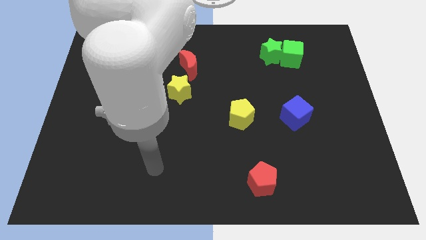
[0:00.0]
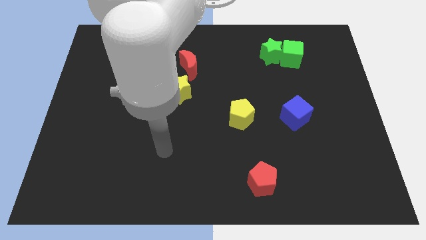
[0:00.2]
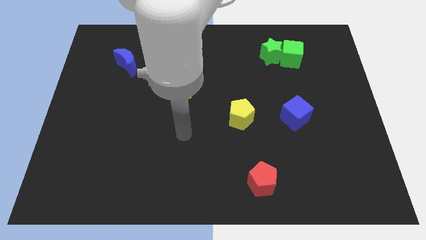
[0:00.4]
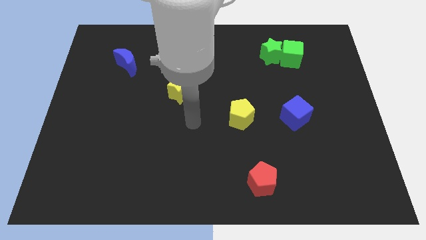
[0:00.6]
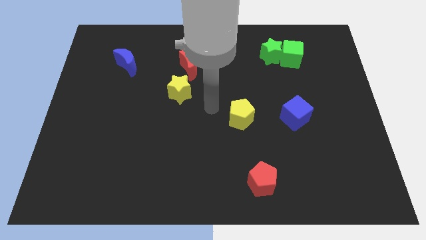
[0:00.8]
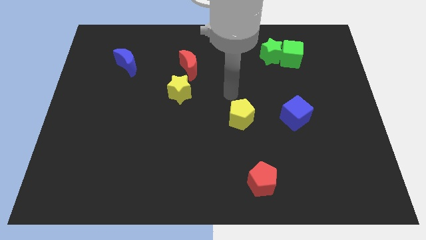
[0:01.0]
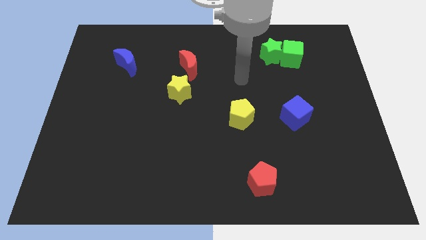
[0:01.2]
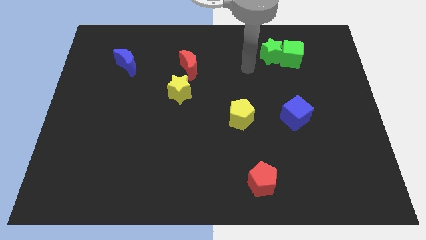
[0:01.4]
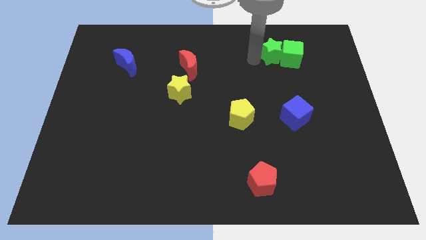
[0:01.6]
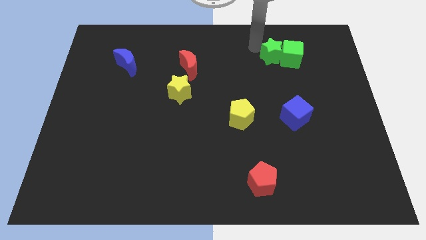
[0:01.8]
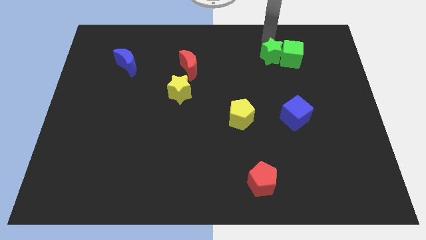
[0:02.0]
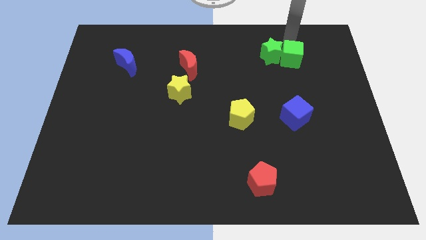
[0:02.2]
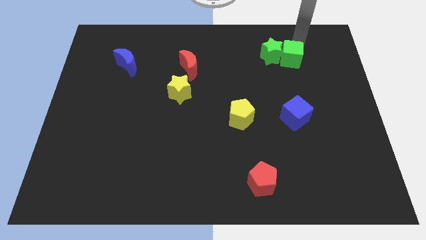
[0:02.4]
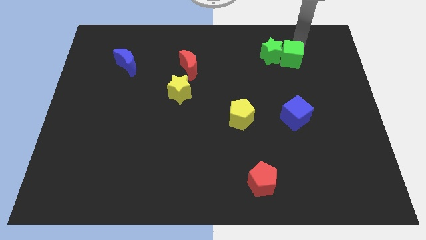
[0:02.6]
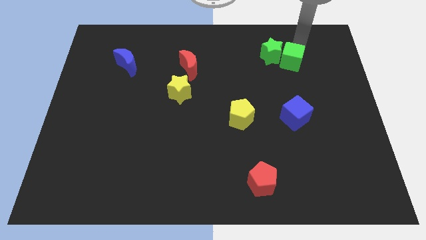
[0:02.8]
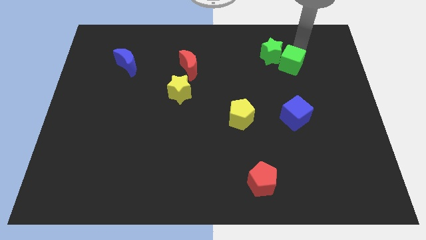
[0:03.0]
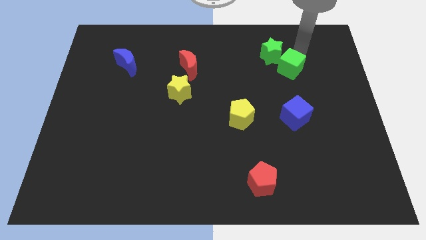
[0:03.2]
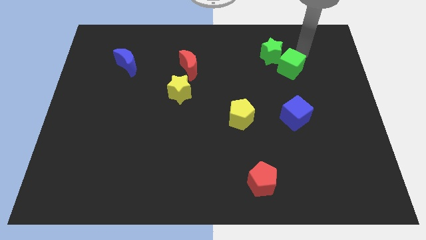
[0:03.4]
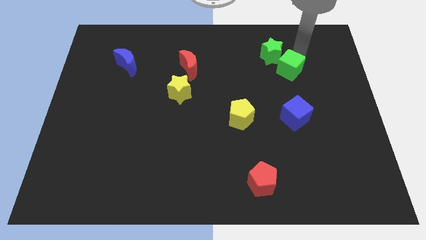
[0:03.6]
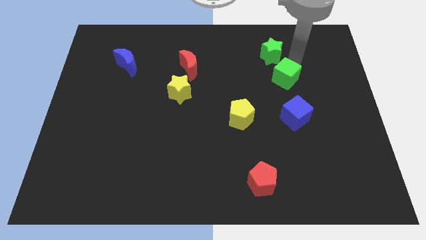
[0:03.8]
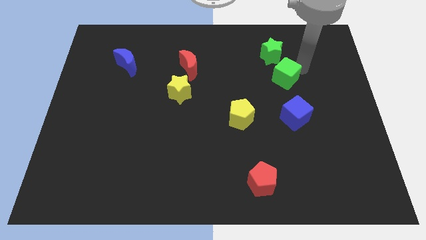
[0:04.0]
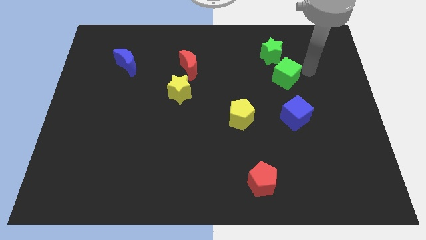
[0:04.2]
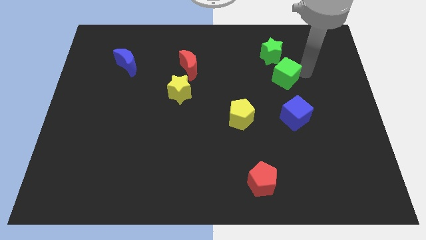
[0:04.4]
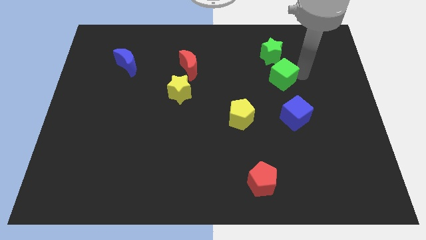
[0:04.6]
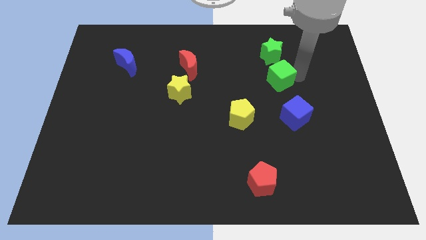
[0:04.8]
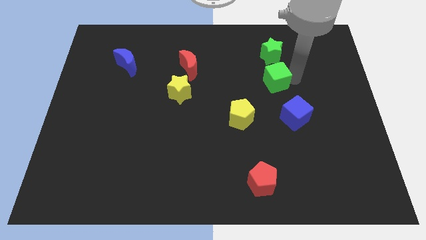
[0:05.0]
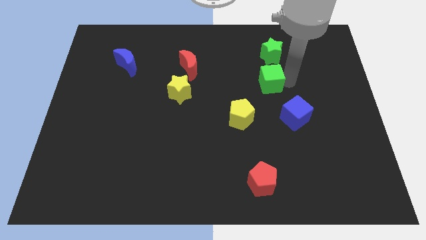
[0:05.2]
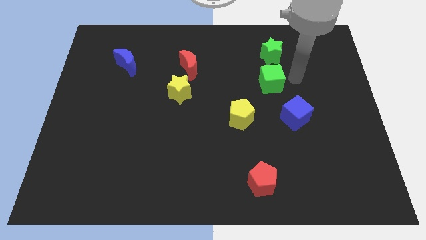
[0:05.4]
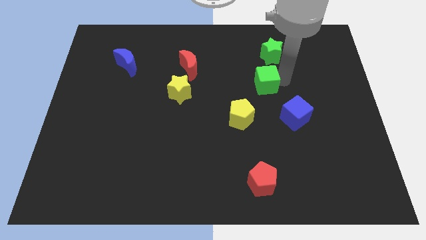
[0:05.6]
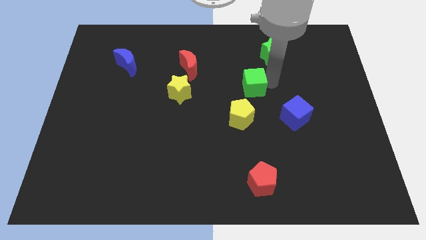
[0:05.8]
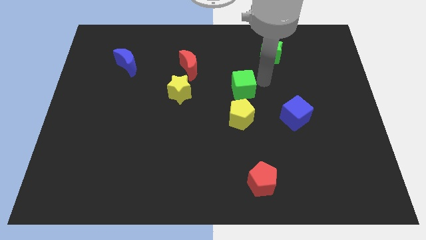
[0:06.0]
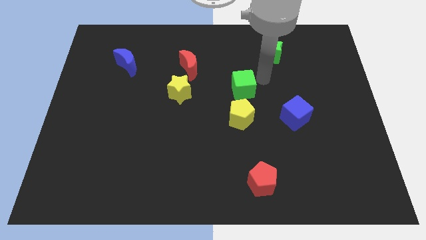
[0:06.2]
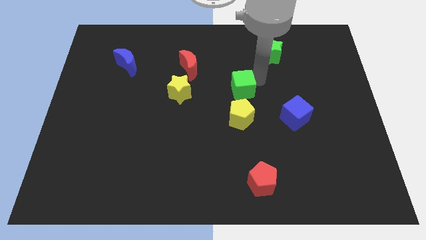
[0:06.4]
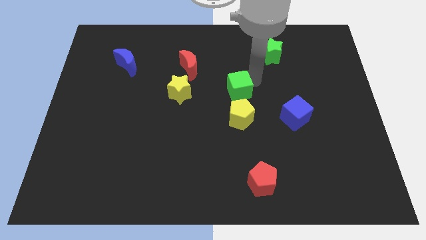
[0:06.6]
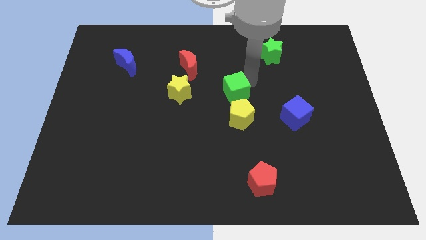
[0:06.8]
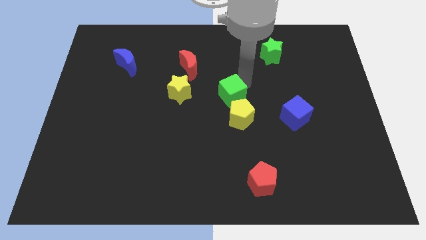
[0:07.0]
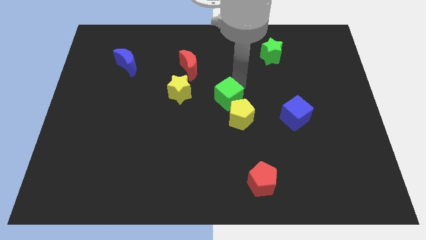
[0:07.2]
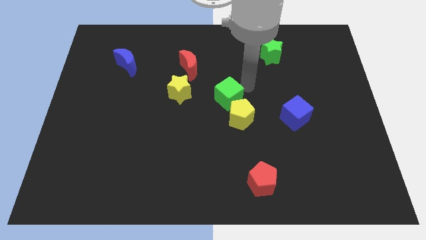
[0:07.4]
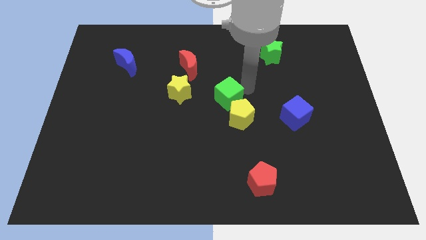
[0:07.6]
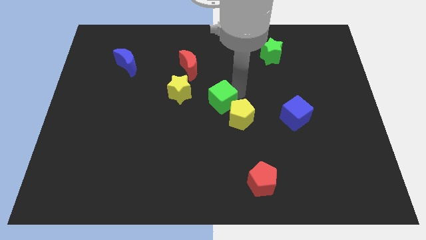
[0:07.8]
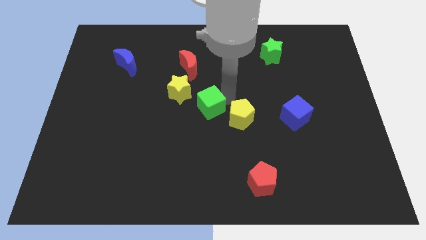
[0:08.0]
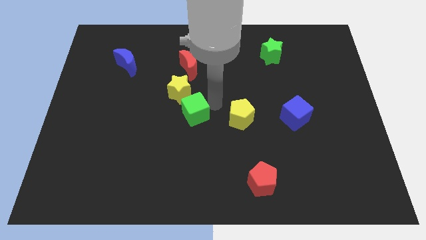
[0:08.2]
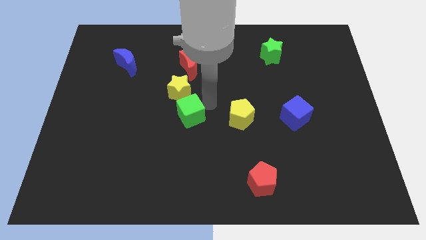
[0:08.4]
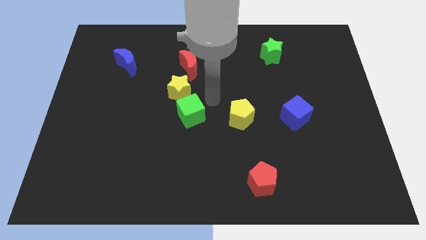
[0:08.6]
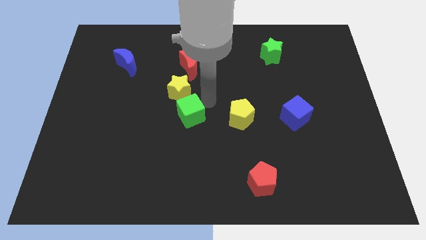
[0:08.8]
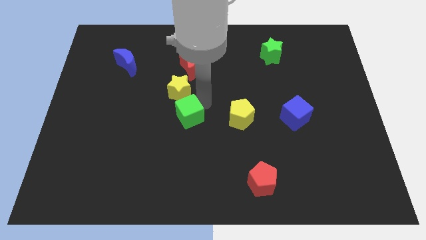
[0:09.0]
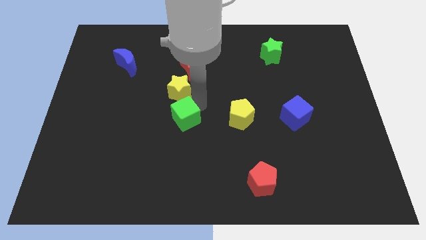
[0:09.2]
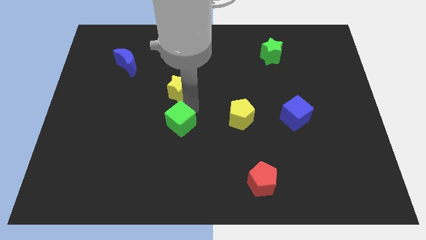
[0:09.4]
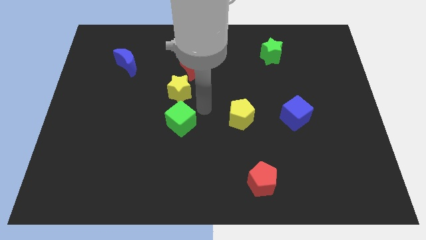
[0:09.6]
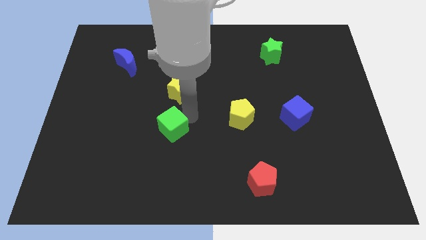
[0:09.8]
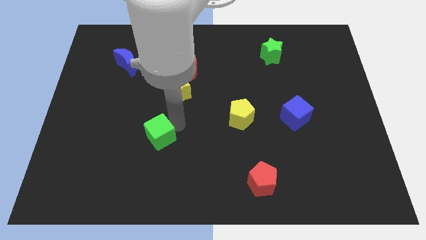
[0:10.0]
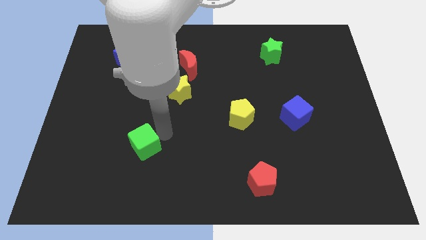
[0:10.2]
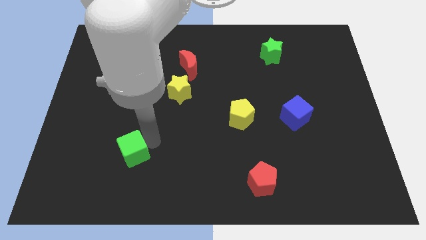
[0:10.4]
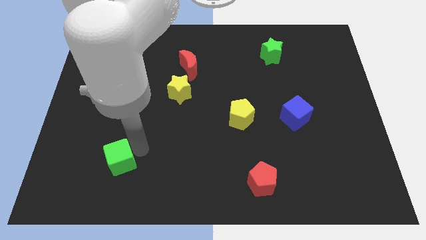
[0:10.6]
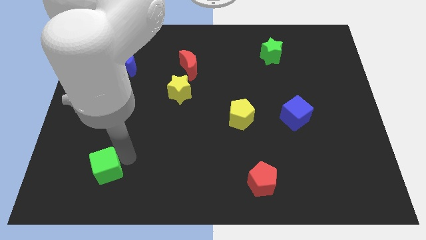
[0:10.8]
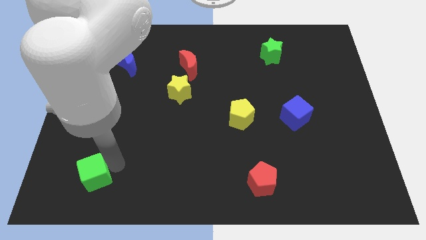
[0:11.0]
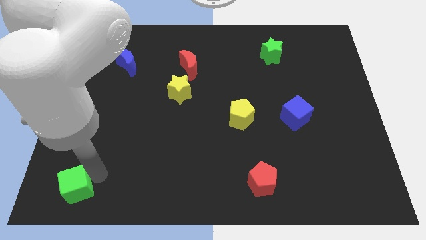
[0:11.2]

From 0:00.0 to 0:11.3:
put the green cube to the bottom left

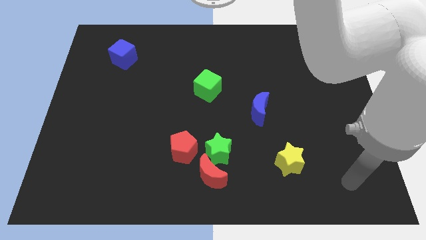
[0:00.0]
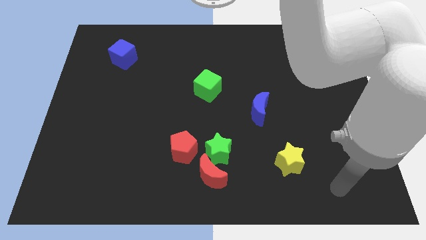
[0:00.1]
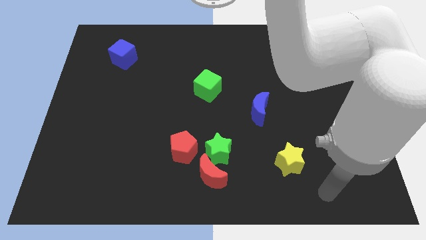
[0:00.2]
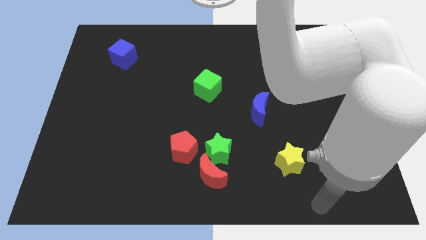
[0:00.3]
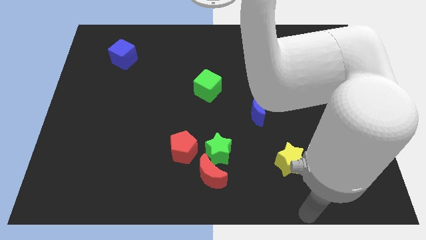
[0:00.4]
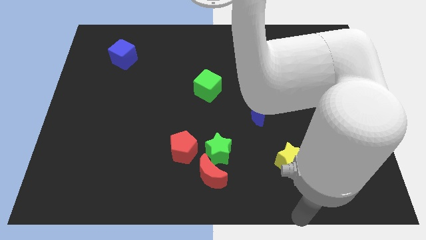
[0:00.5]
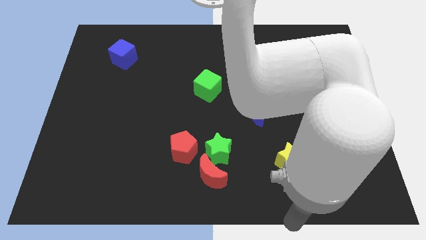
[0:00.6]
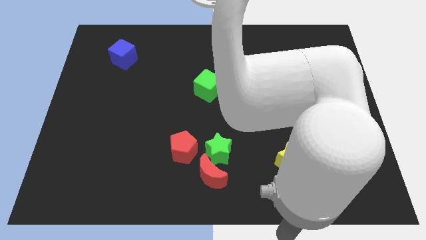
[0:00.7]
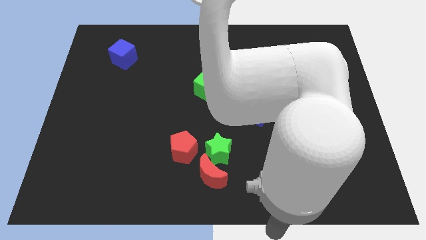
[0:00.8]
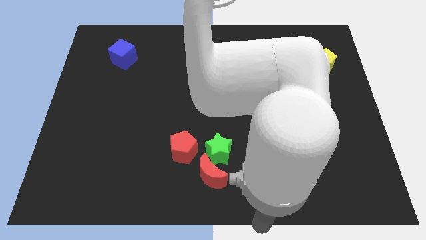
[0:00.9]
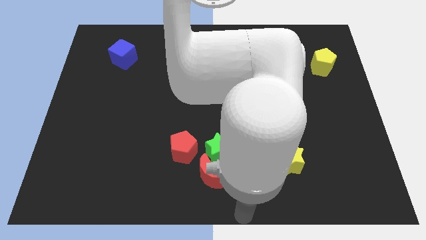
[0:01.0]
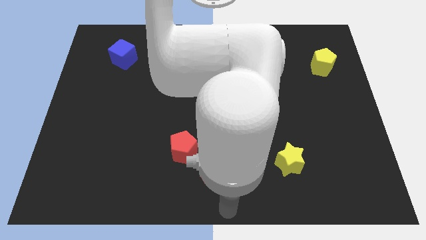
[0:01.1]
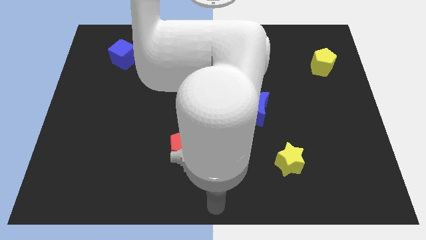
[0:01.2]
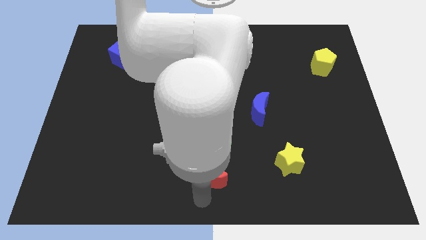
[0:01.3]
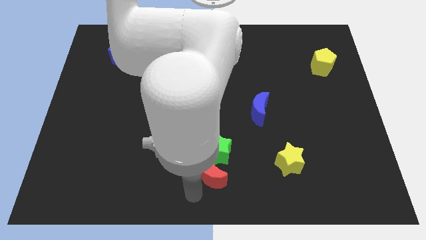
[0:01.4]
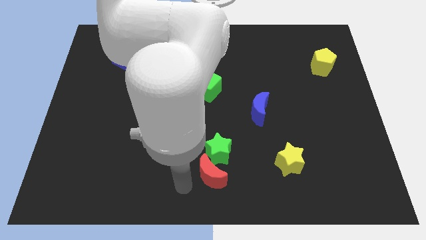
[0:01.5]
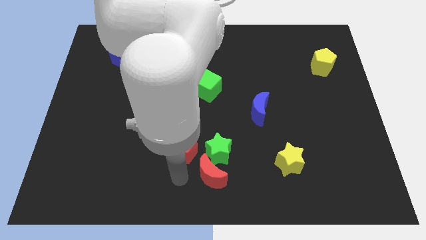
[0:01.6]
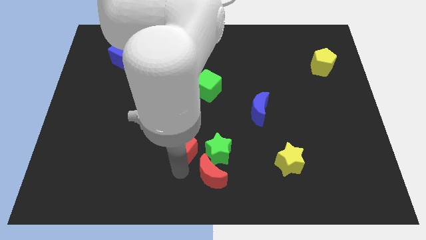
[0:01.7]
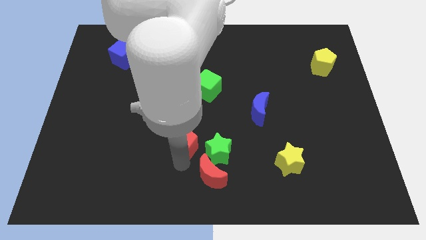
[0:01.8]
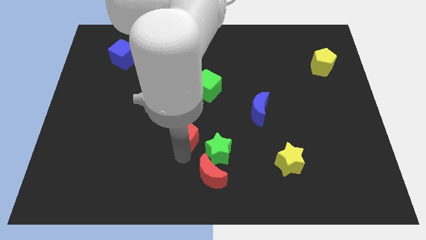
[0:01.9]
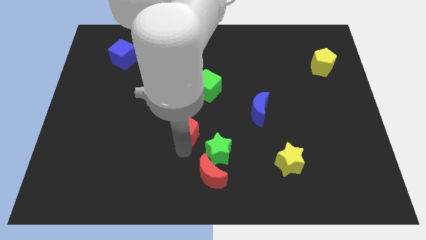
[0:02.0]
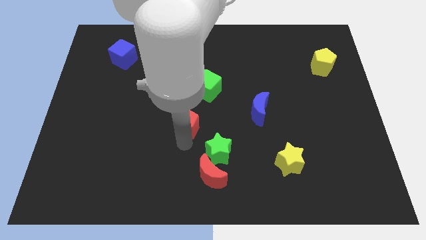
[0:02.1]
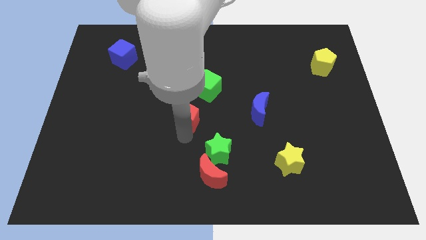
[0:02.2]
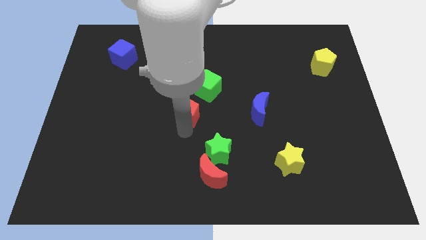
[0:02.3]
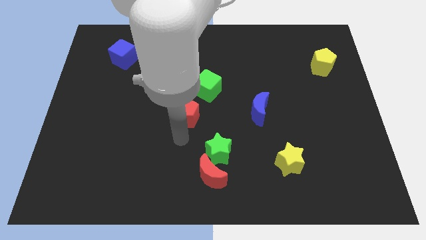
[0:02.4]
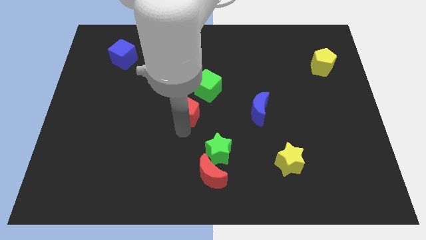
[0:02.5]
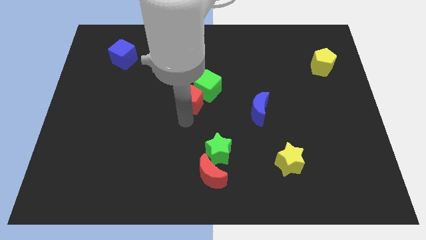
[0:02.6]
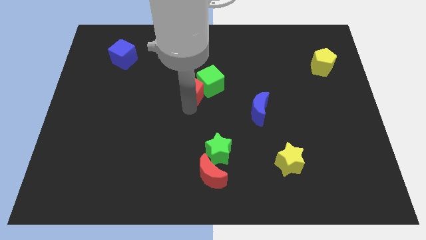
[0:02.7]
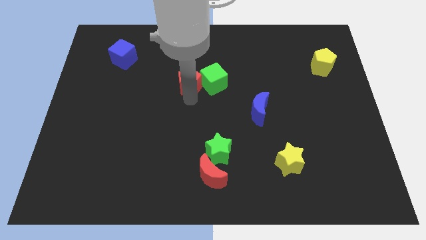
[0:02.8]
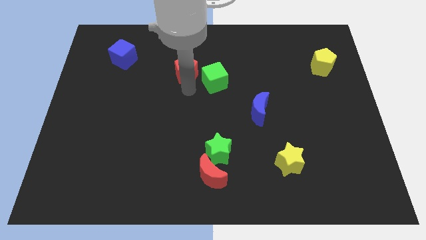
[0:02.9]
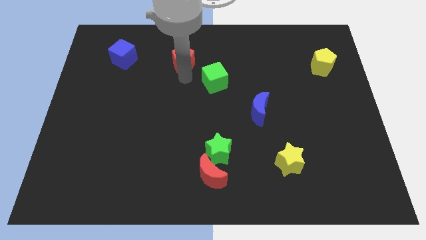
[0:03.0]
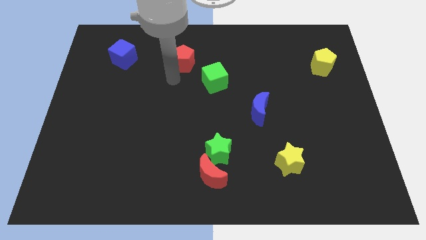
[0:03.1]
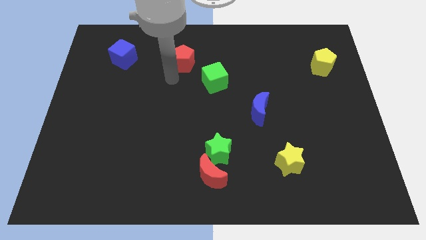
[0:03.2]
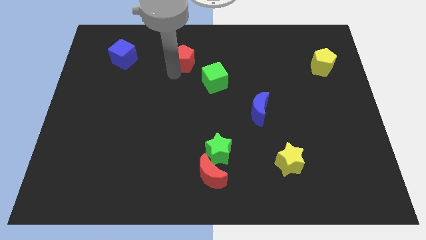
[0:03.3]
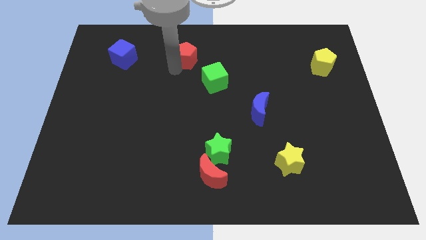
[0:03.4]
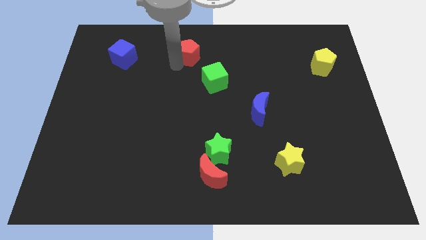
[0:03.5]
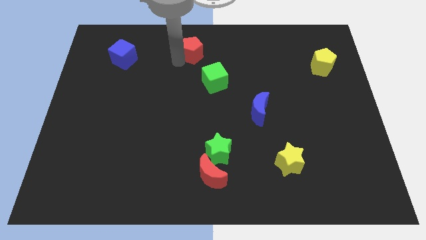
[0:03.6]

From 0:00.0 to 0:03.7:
move the red pentagon to the towards your base
